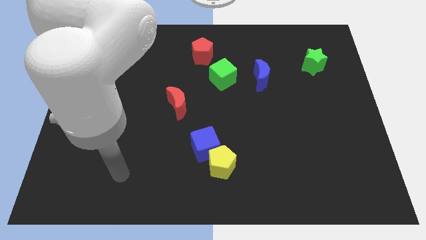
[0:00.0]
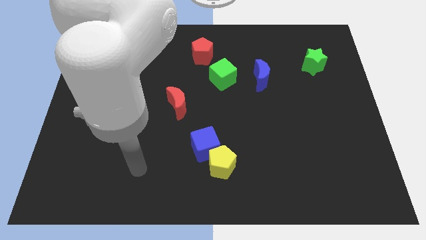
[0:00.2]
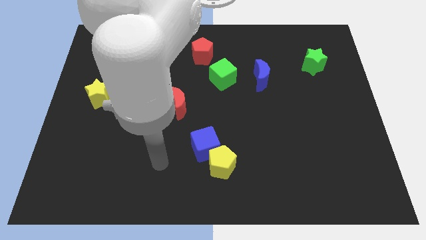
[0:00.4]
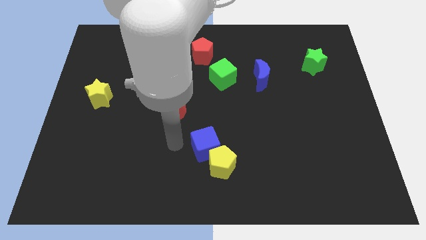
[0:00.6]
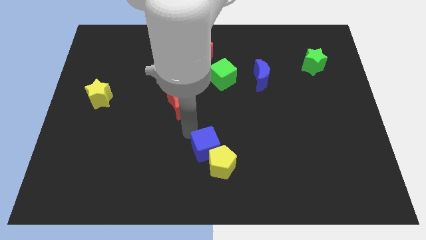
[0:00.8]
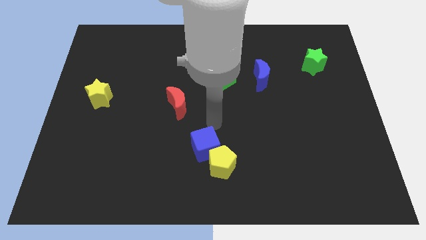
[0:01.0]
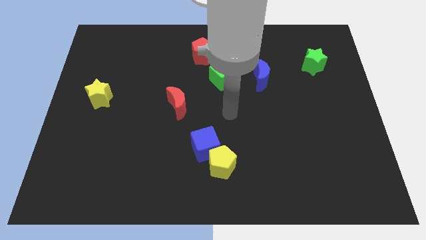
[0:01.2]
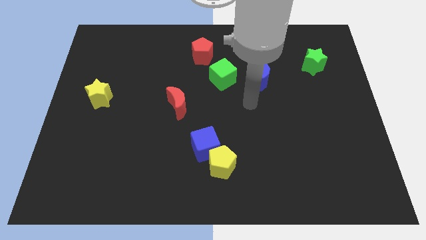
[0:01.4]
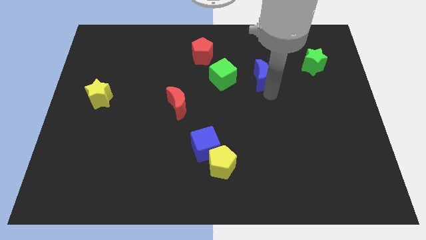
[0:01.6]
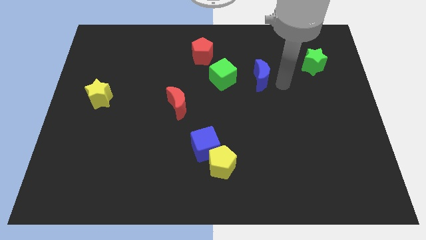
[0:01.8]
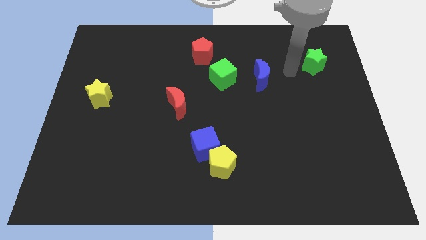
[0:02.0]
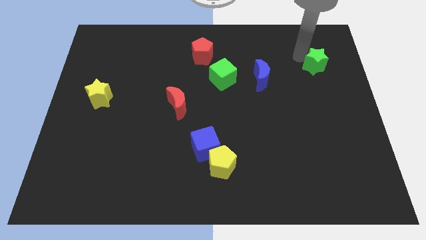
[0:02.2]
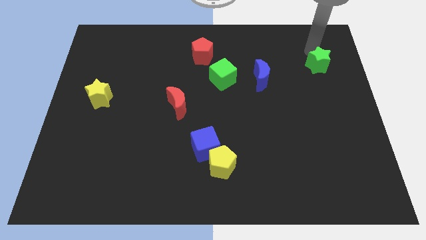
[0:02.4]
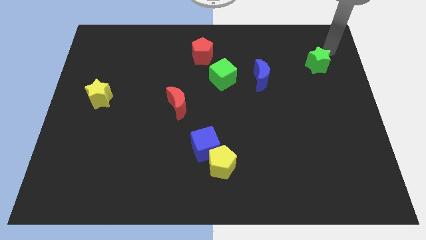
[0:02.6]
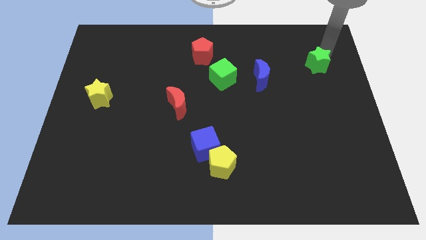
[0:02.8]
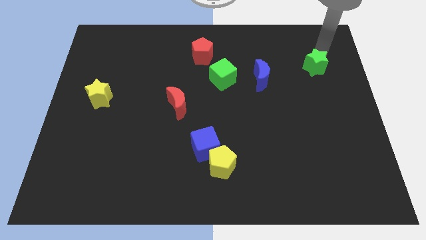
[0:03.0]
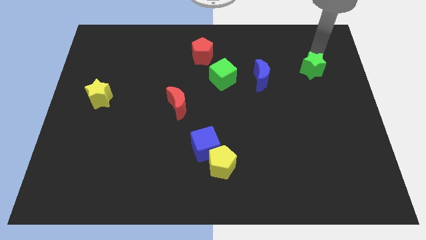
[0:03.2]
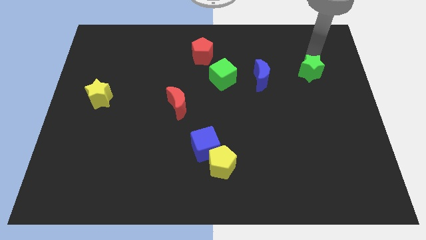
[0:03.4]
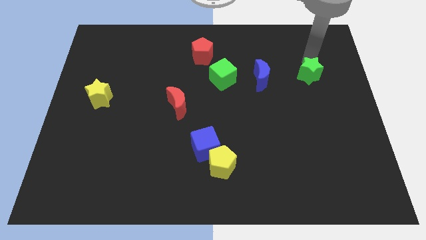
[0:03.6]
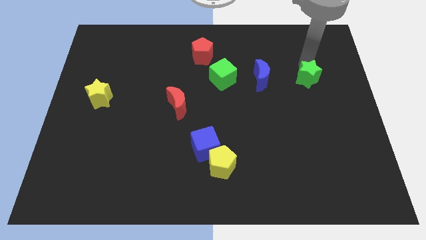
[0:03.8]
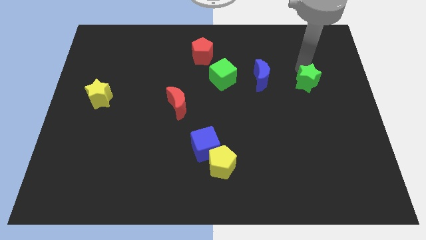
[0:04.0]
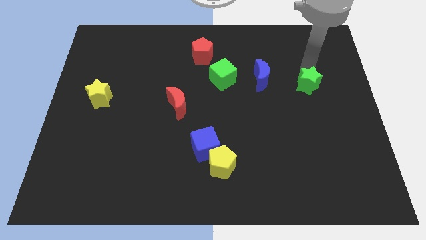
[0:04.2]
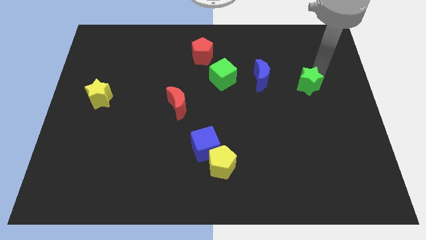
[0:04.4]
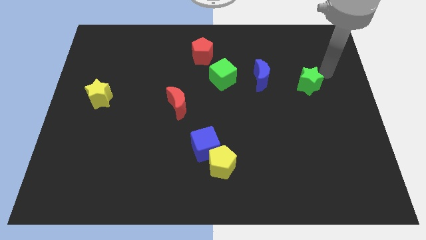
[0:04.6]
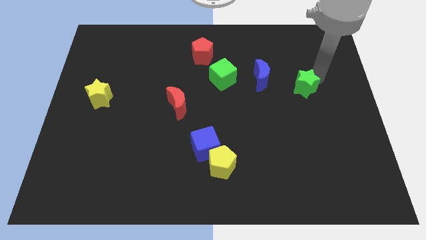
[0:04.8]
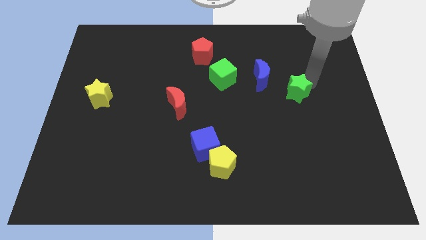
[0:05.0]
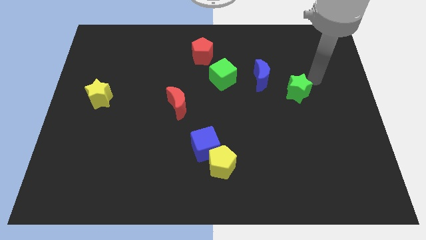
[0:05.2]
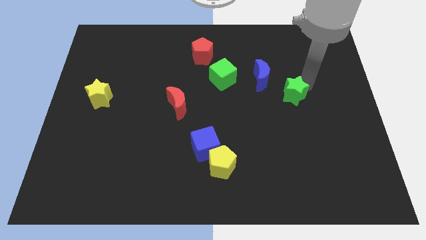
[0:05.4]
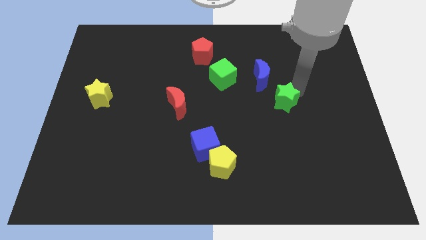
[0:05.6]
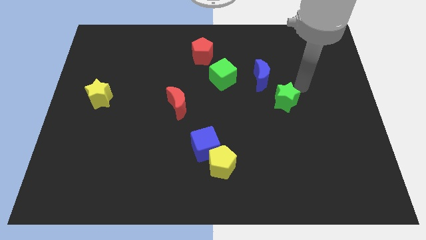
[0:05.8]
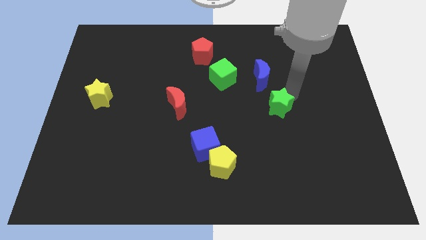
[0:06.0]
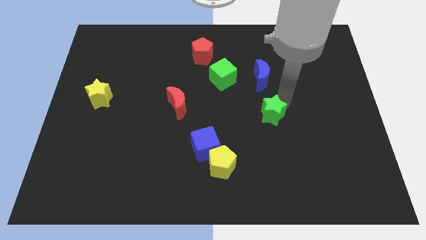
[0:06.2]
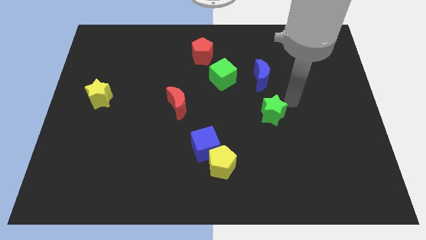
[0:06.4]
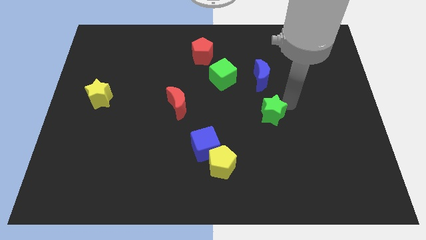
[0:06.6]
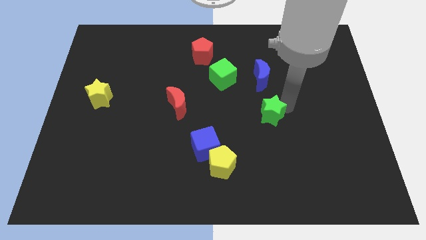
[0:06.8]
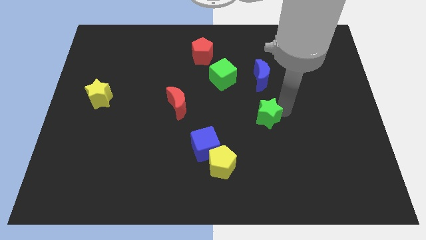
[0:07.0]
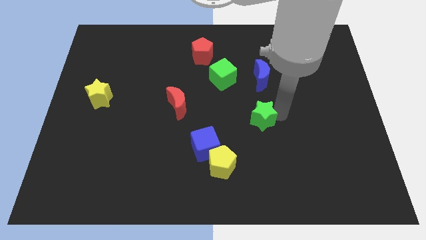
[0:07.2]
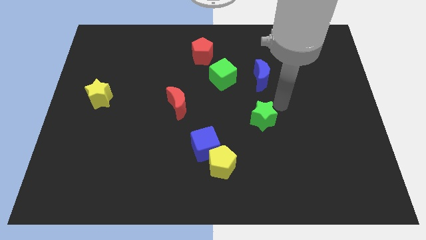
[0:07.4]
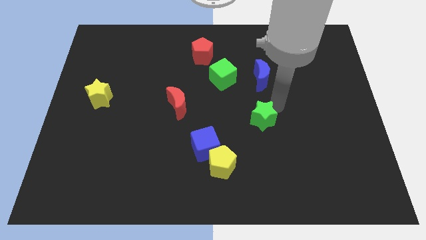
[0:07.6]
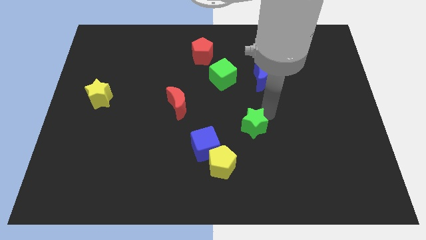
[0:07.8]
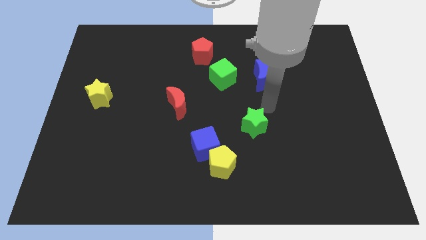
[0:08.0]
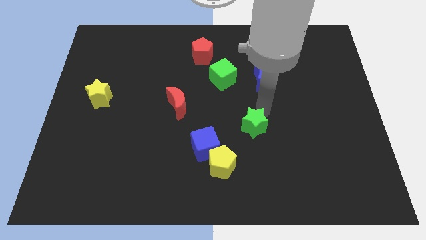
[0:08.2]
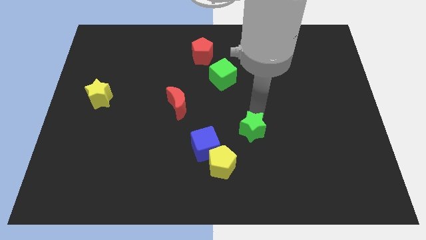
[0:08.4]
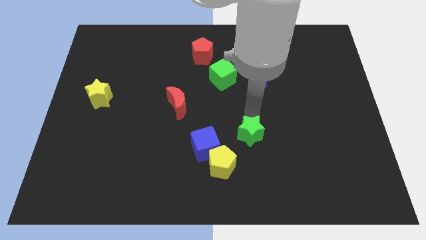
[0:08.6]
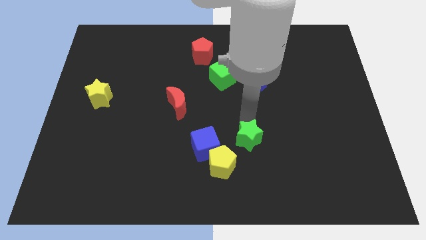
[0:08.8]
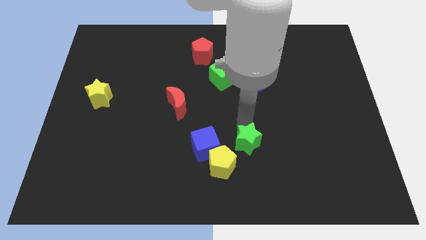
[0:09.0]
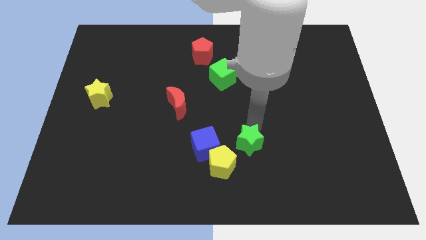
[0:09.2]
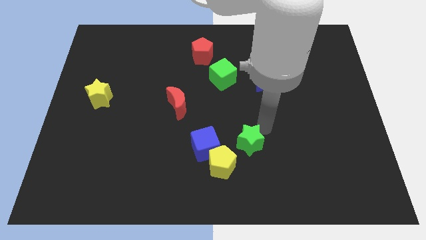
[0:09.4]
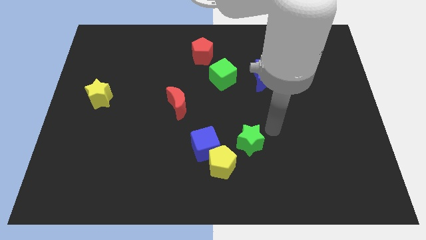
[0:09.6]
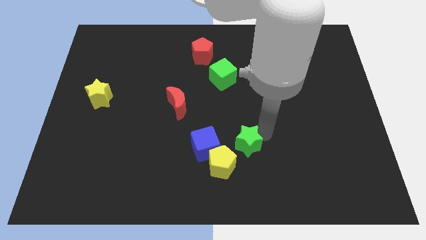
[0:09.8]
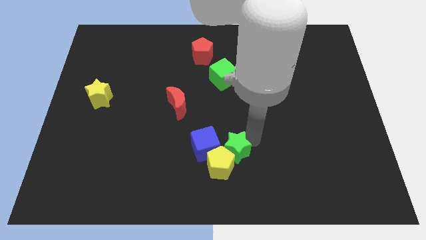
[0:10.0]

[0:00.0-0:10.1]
put the green star next to the yellow pentagon

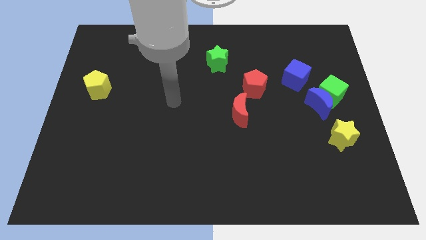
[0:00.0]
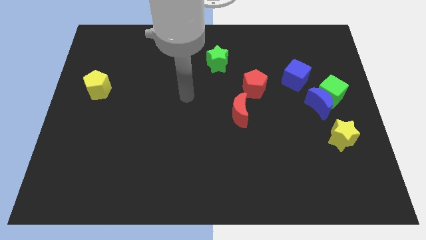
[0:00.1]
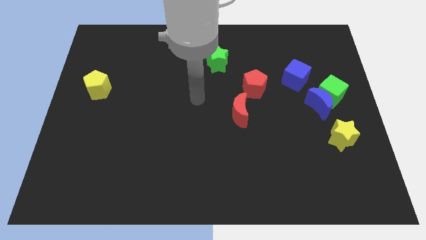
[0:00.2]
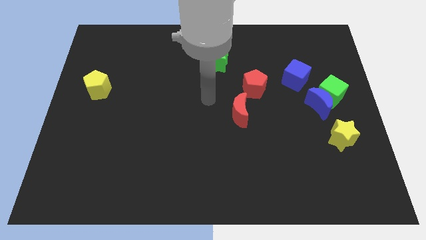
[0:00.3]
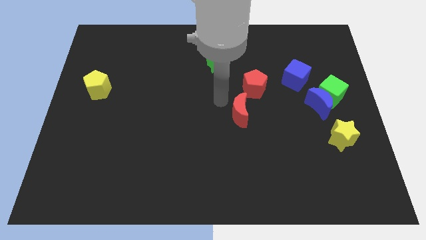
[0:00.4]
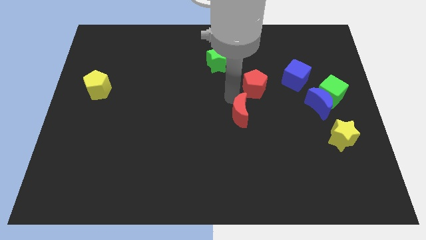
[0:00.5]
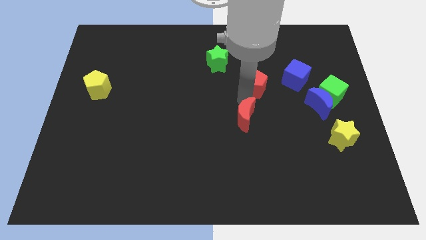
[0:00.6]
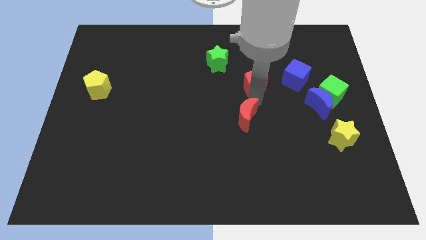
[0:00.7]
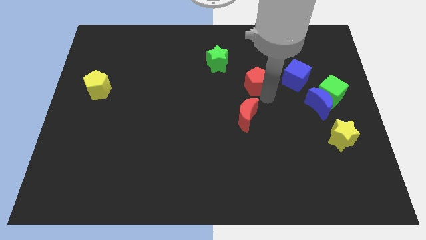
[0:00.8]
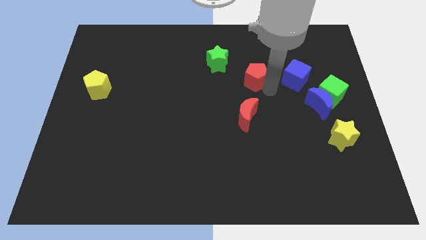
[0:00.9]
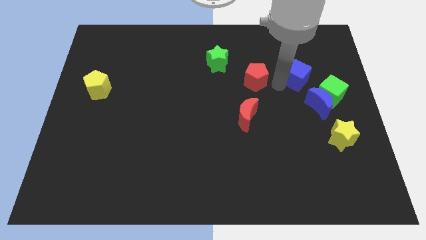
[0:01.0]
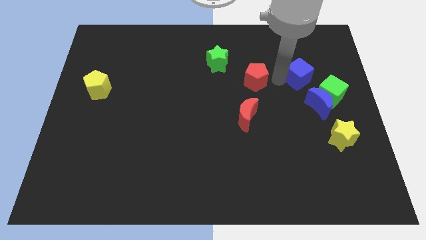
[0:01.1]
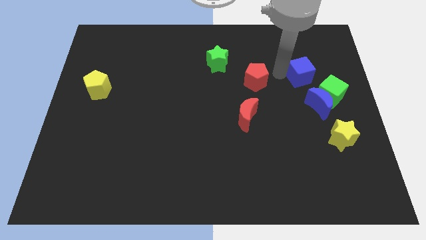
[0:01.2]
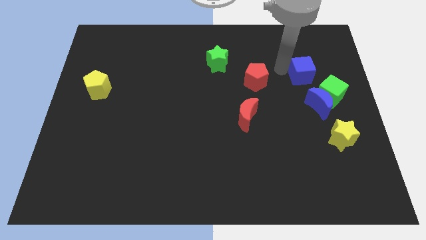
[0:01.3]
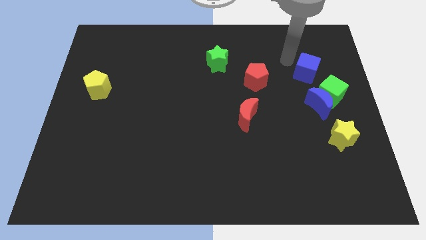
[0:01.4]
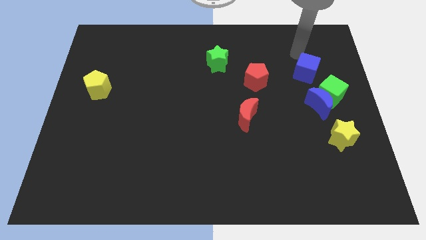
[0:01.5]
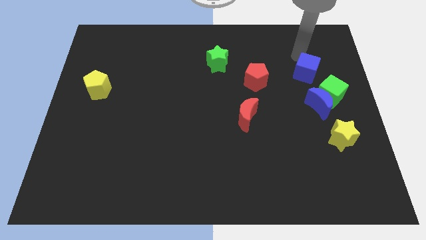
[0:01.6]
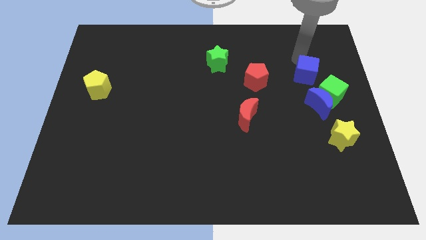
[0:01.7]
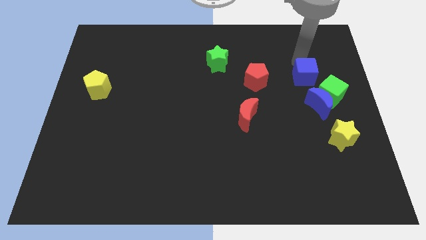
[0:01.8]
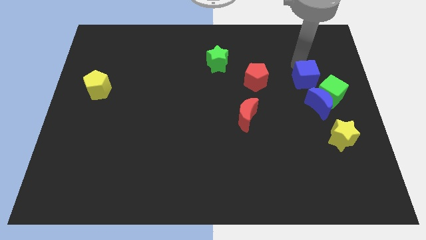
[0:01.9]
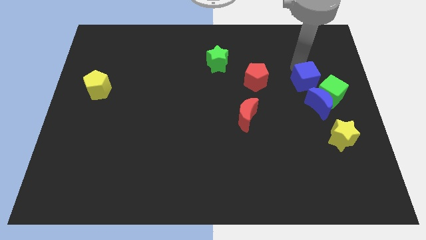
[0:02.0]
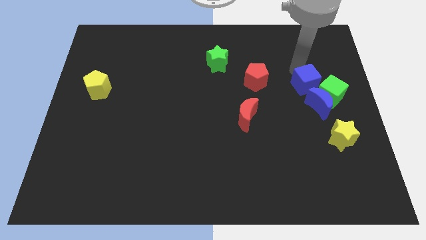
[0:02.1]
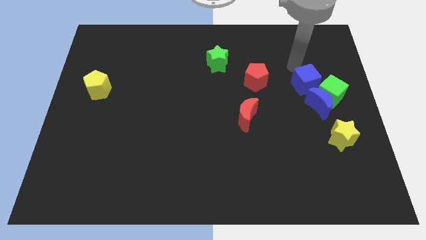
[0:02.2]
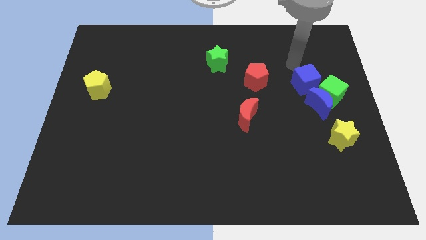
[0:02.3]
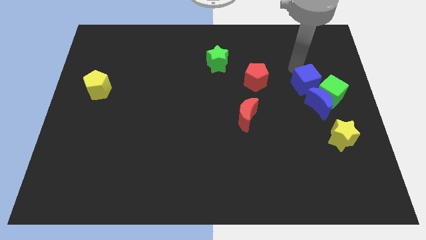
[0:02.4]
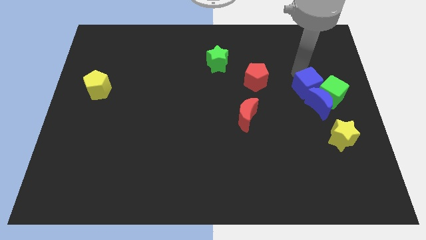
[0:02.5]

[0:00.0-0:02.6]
slide the blue cube to the blue moon
